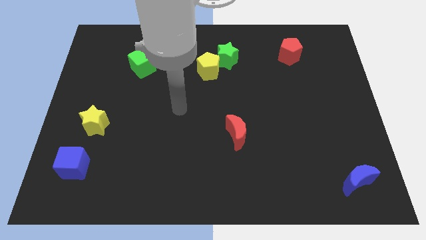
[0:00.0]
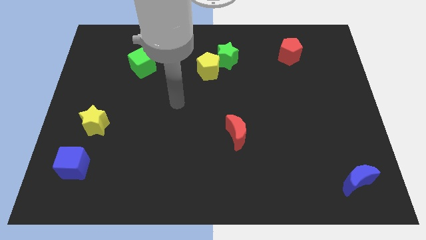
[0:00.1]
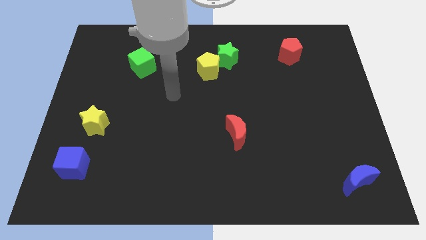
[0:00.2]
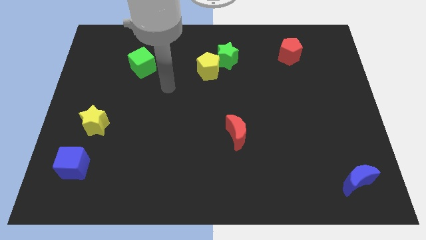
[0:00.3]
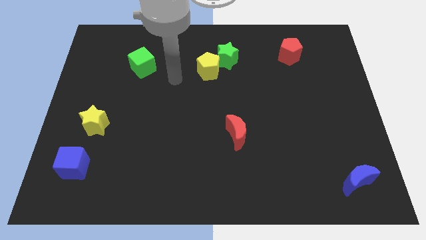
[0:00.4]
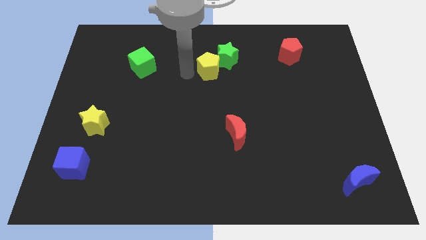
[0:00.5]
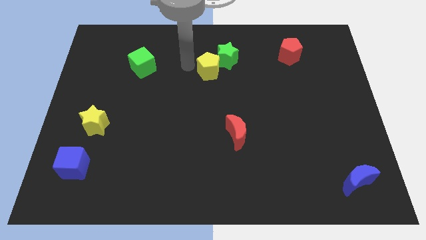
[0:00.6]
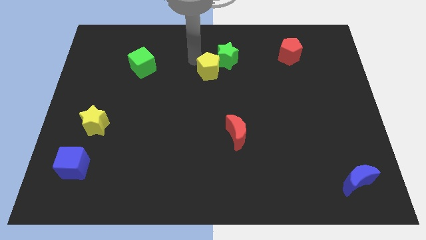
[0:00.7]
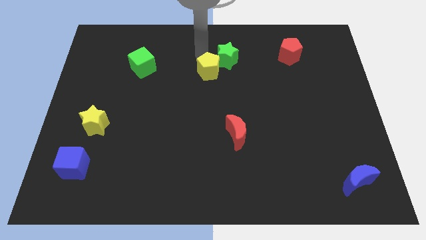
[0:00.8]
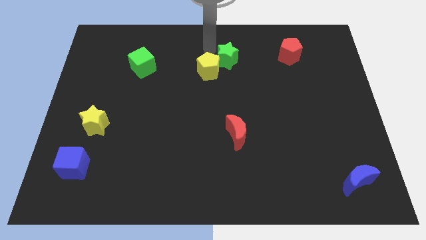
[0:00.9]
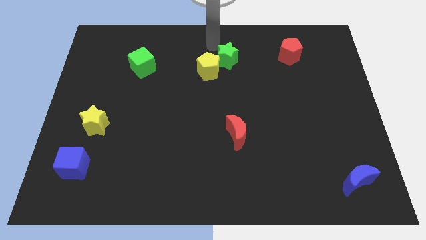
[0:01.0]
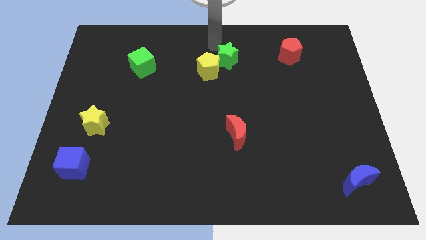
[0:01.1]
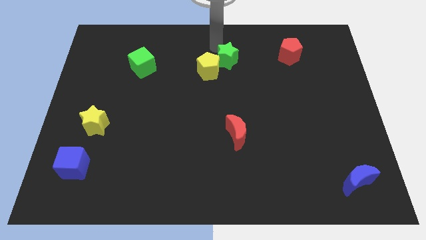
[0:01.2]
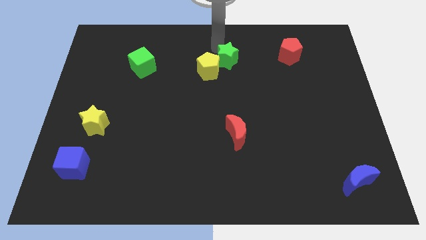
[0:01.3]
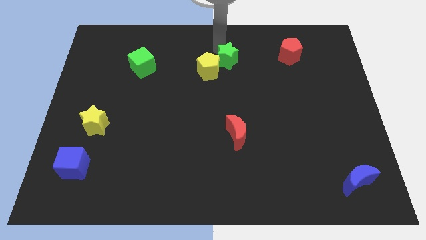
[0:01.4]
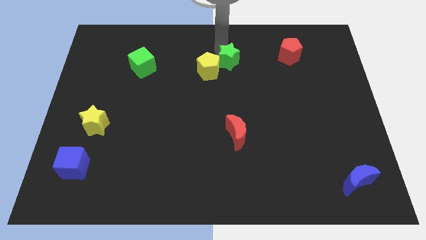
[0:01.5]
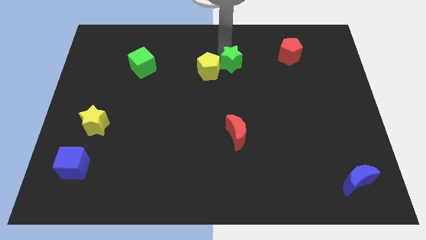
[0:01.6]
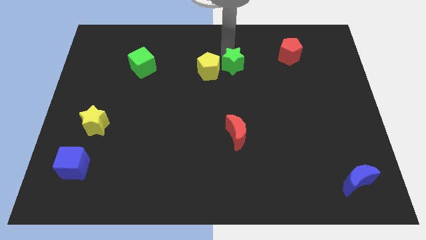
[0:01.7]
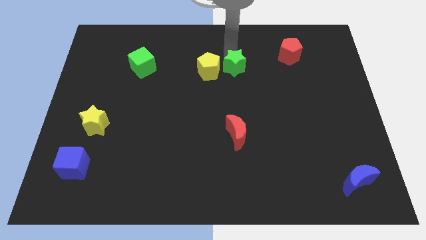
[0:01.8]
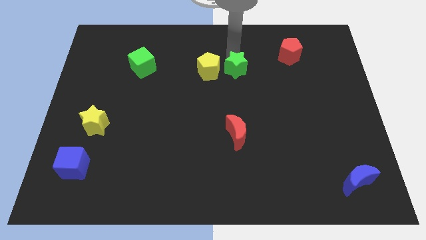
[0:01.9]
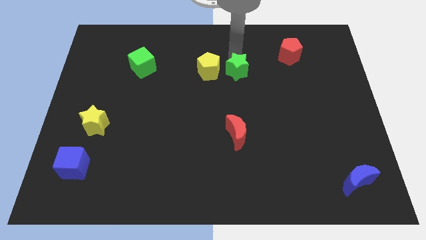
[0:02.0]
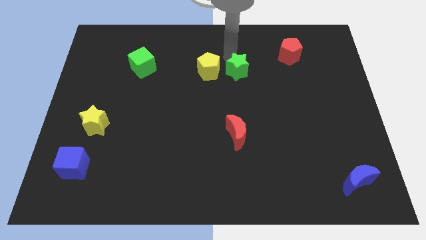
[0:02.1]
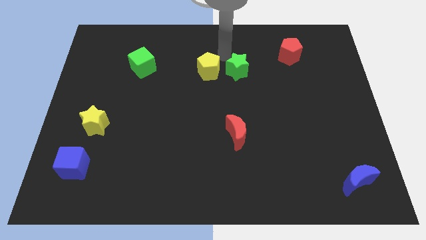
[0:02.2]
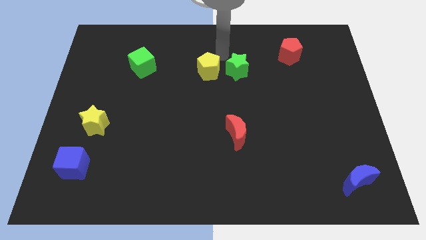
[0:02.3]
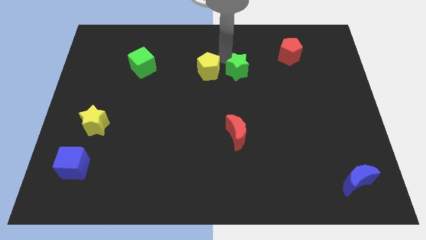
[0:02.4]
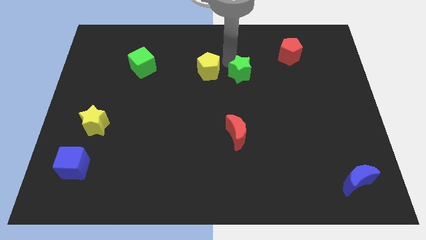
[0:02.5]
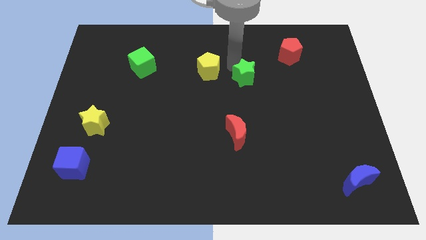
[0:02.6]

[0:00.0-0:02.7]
slightly push the green star downwards and then to the right

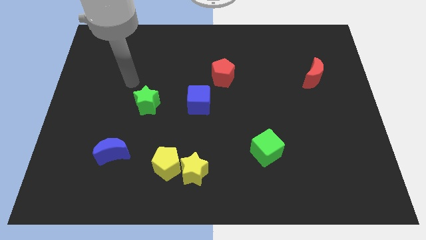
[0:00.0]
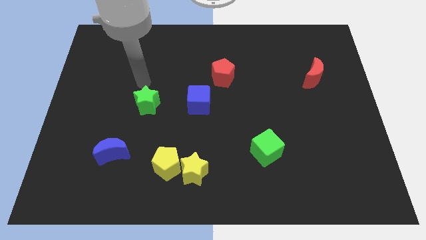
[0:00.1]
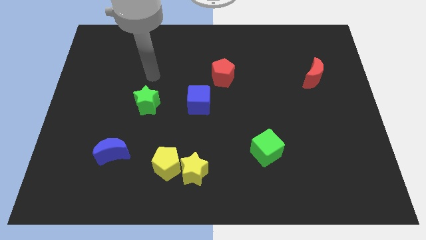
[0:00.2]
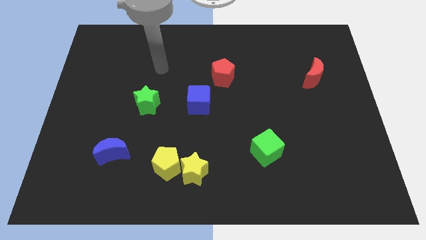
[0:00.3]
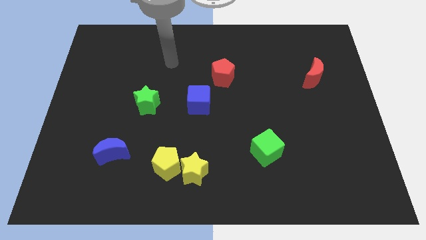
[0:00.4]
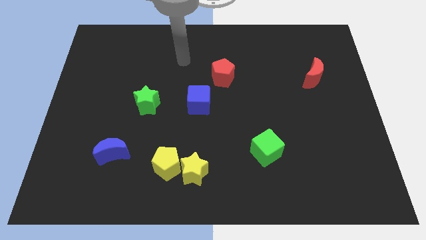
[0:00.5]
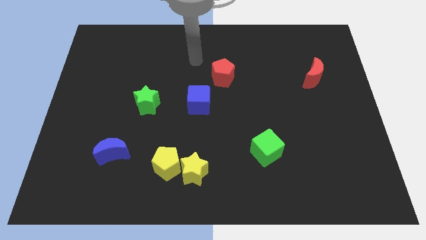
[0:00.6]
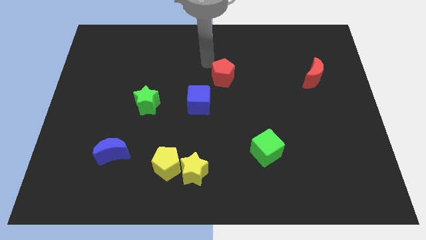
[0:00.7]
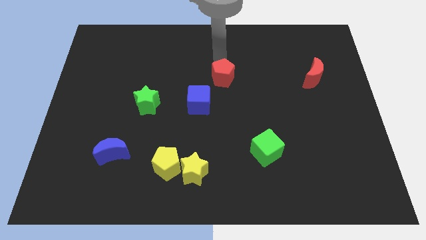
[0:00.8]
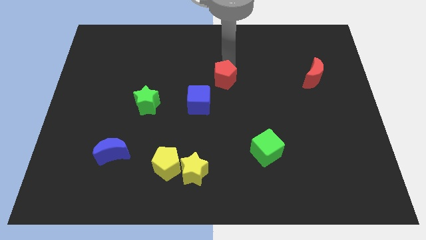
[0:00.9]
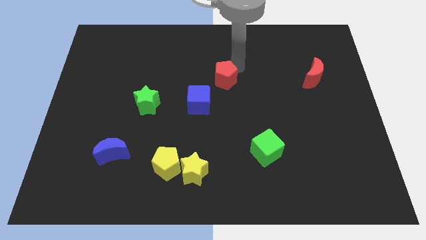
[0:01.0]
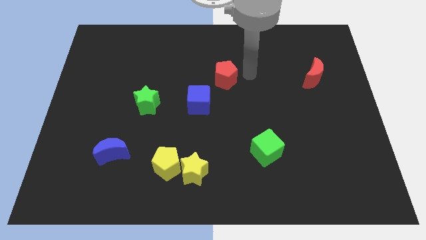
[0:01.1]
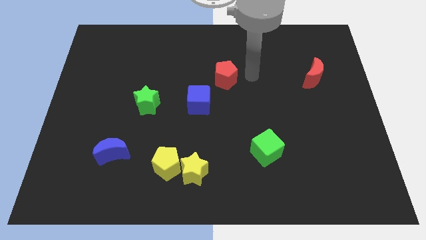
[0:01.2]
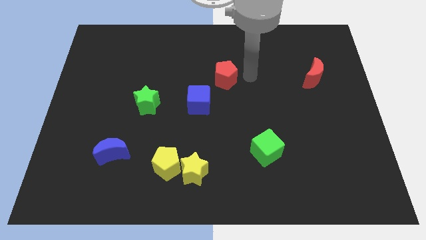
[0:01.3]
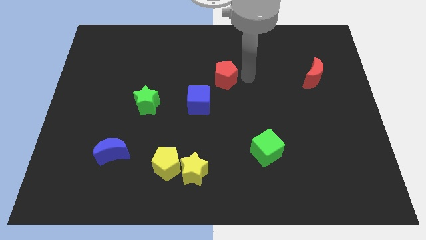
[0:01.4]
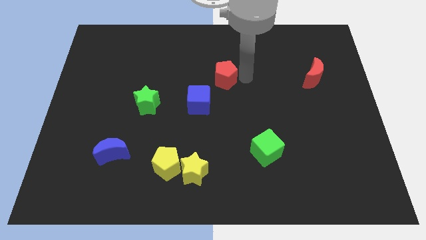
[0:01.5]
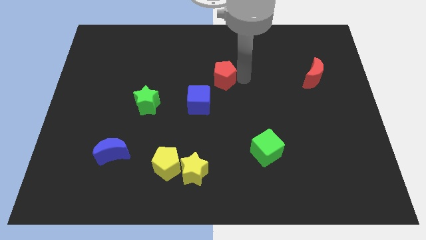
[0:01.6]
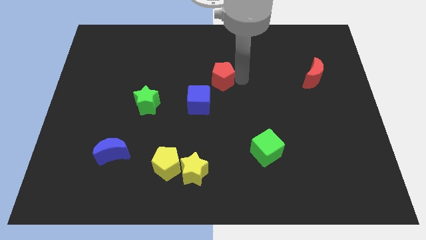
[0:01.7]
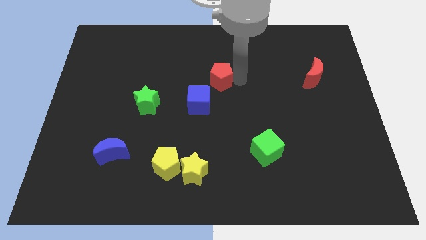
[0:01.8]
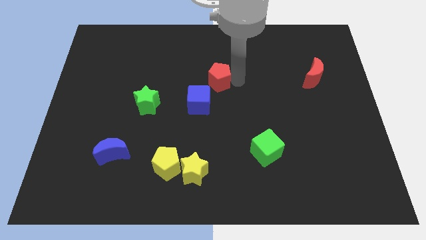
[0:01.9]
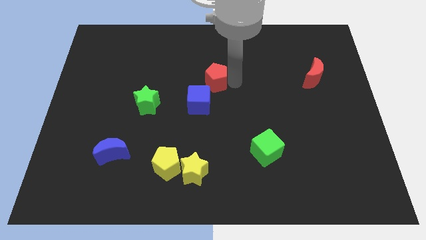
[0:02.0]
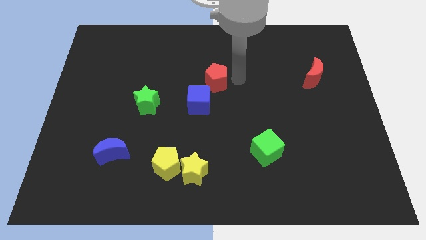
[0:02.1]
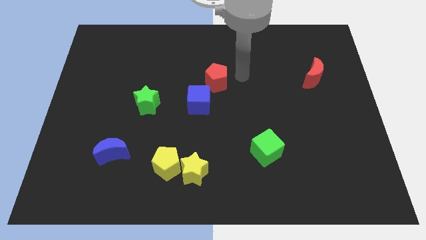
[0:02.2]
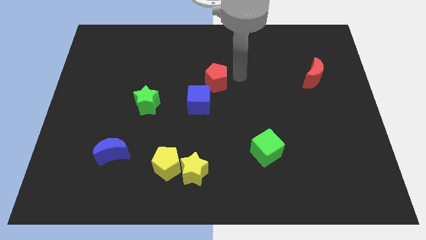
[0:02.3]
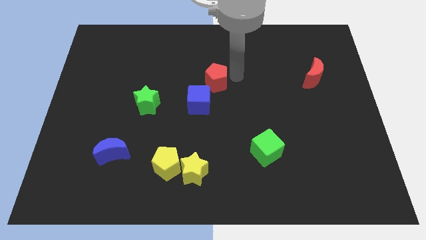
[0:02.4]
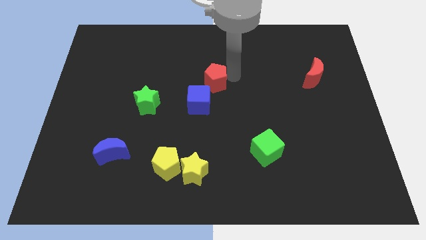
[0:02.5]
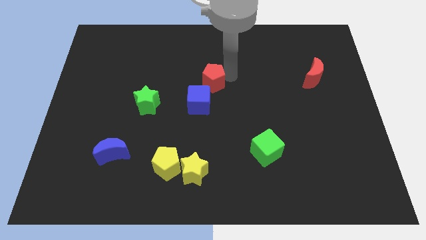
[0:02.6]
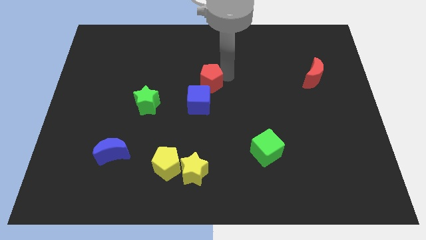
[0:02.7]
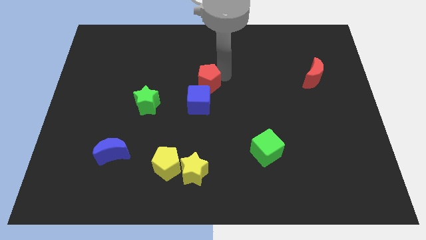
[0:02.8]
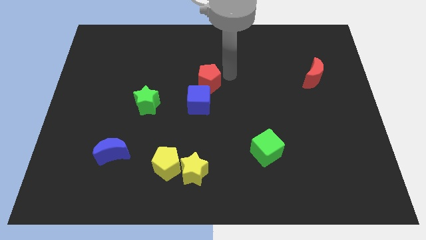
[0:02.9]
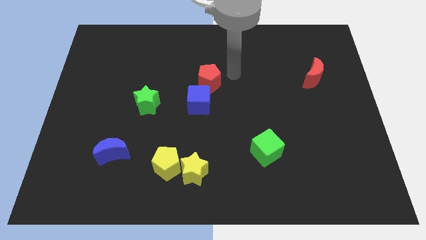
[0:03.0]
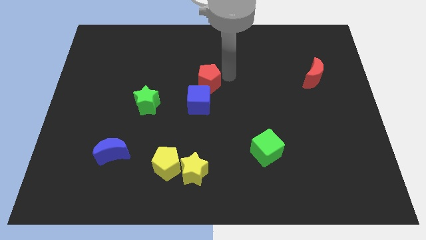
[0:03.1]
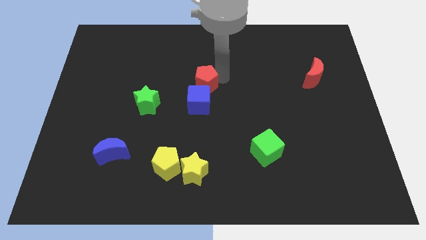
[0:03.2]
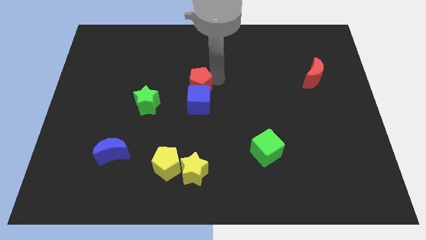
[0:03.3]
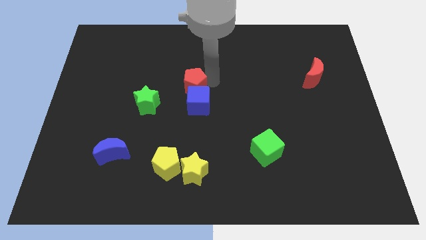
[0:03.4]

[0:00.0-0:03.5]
slightly push the red pentagon downwards and then left

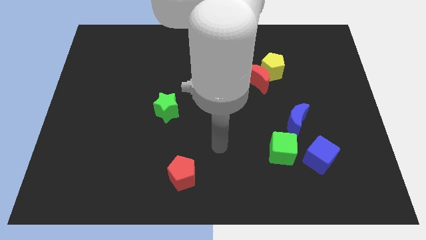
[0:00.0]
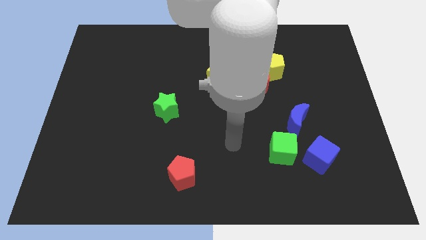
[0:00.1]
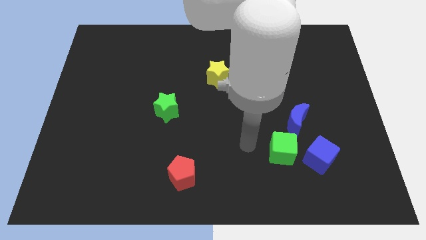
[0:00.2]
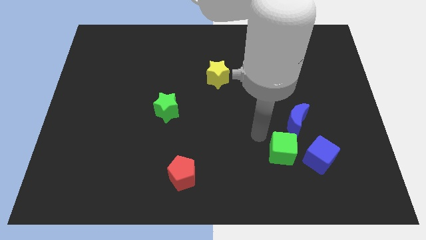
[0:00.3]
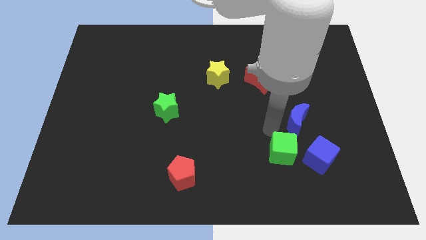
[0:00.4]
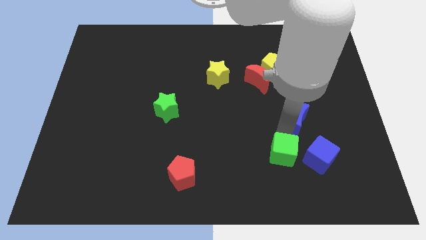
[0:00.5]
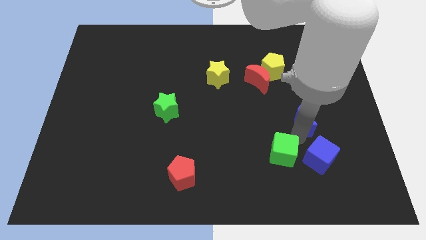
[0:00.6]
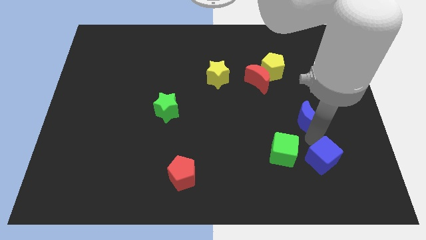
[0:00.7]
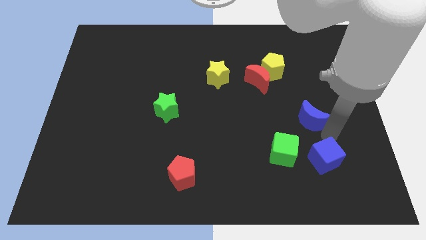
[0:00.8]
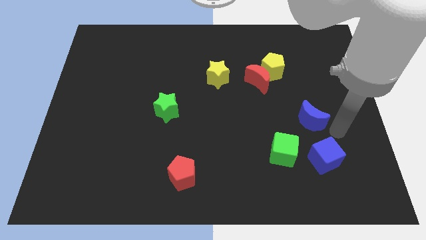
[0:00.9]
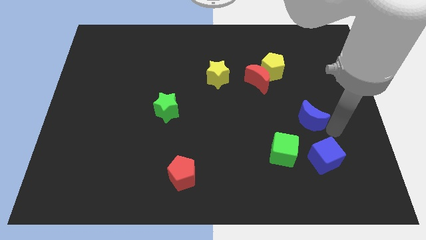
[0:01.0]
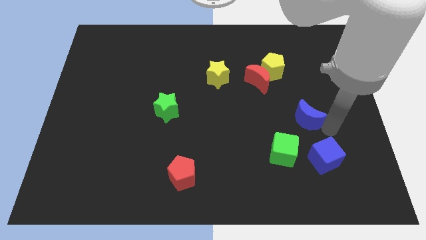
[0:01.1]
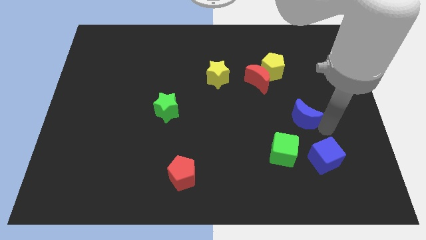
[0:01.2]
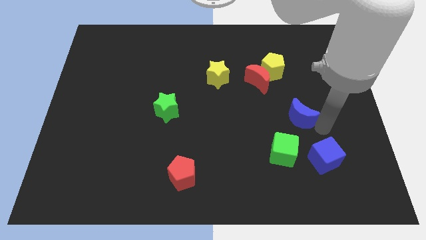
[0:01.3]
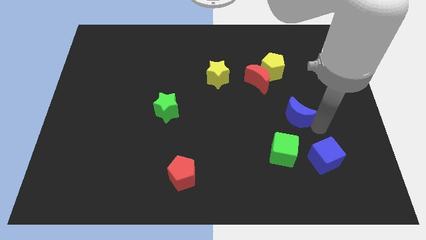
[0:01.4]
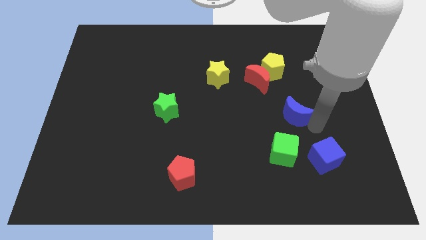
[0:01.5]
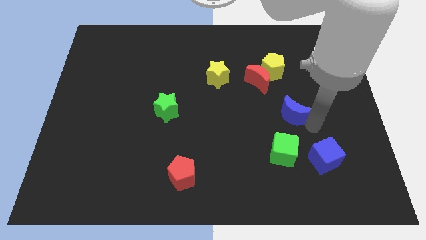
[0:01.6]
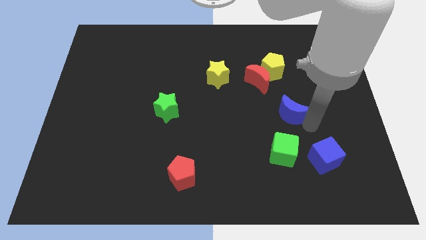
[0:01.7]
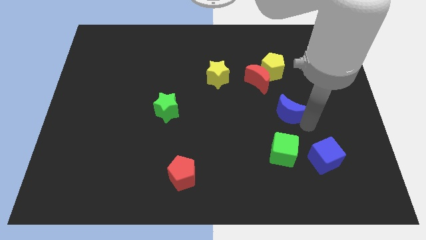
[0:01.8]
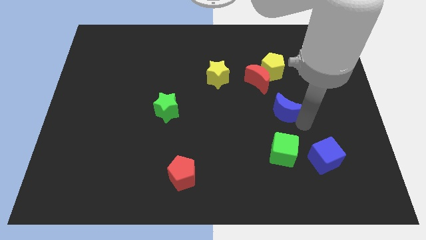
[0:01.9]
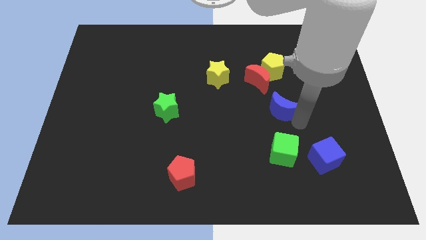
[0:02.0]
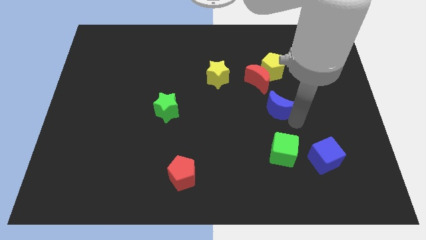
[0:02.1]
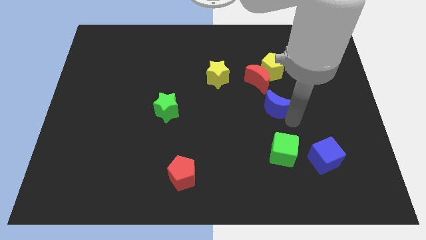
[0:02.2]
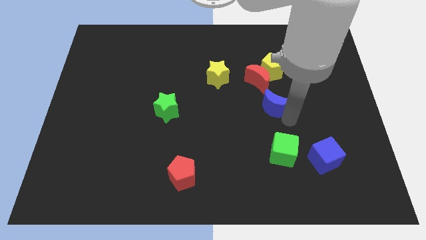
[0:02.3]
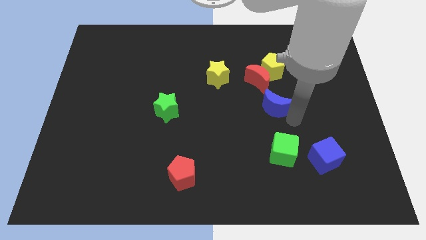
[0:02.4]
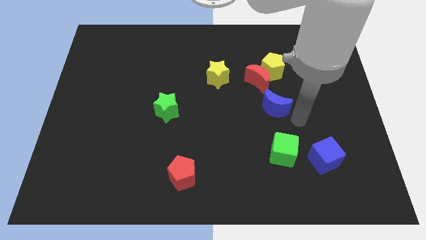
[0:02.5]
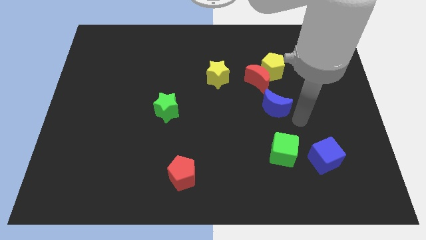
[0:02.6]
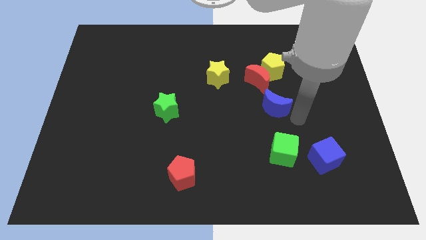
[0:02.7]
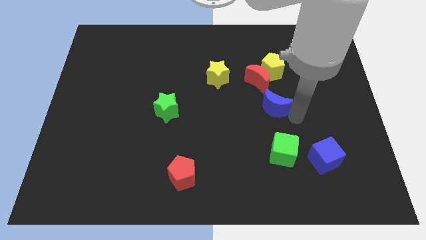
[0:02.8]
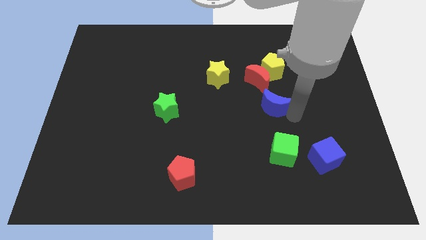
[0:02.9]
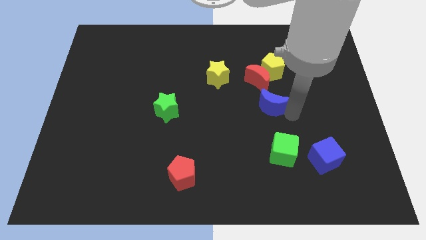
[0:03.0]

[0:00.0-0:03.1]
slightly slide the blue moon up and then left
